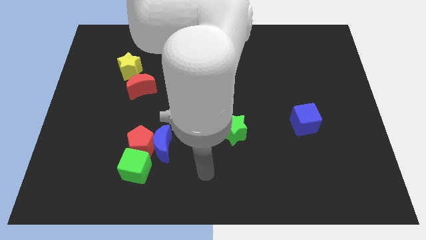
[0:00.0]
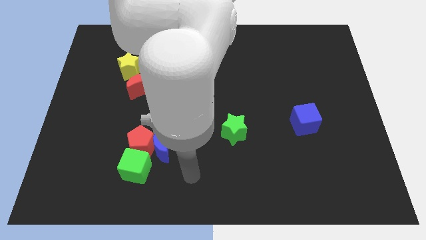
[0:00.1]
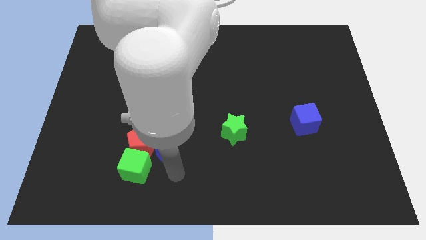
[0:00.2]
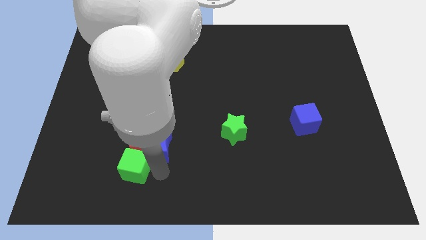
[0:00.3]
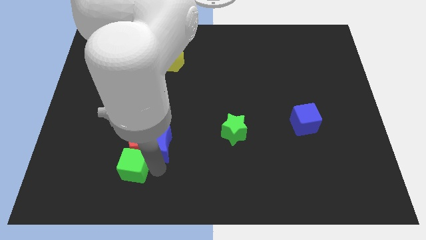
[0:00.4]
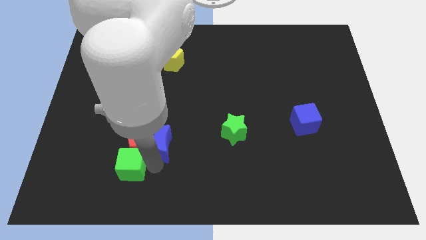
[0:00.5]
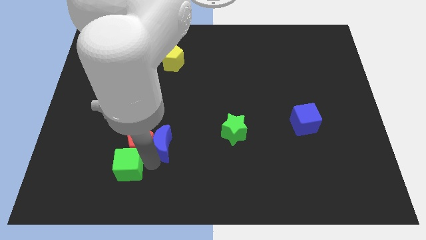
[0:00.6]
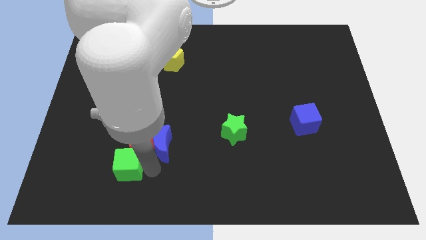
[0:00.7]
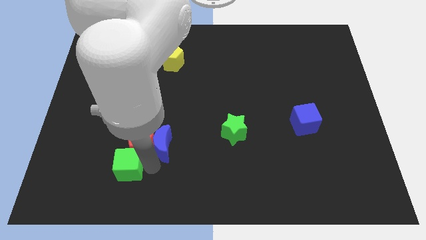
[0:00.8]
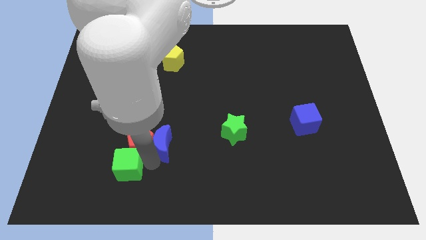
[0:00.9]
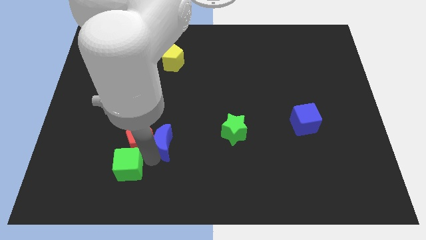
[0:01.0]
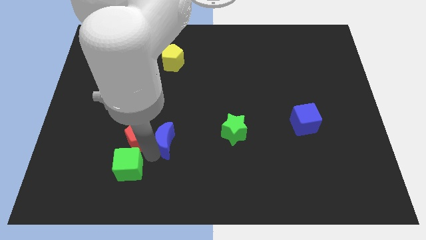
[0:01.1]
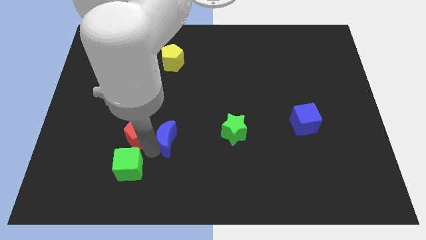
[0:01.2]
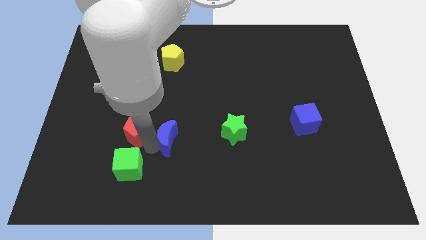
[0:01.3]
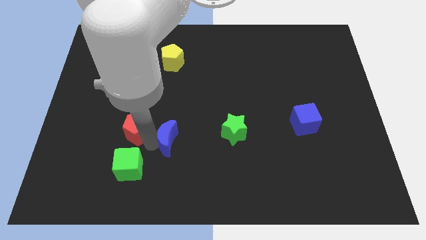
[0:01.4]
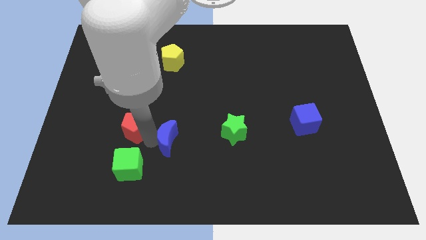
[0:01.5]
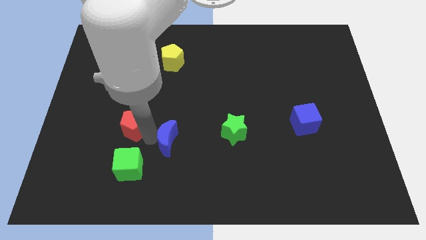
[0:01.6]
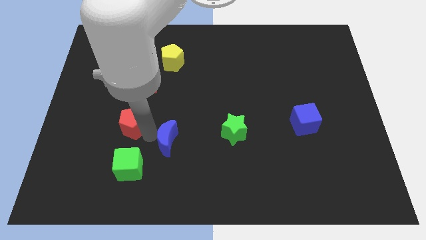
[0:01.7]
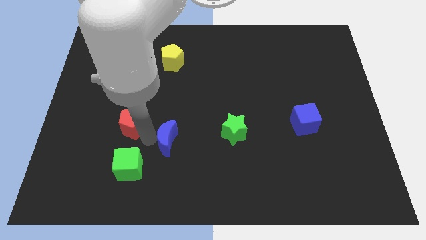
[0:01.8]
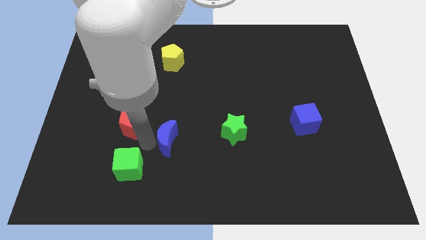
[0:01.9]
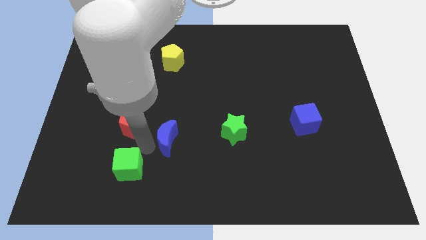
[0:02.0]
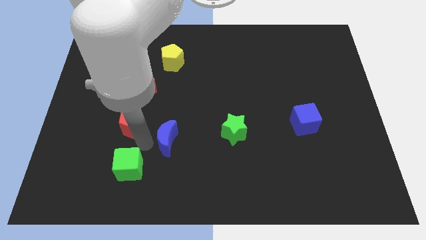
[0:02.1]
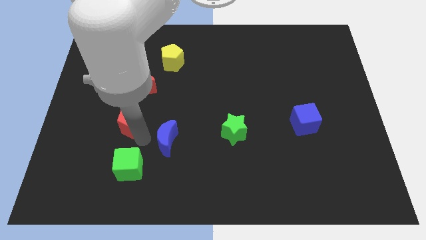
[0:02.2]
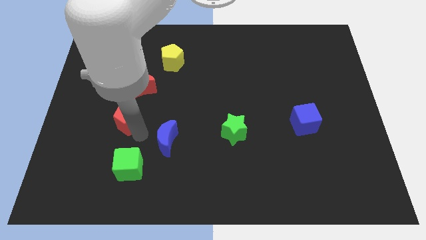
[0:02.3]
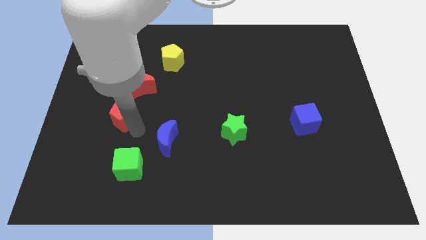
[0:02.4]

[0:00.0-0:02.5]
separate the red pentagon from the blue moon and green cube

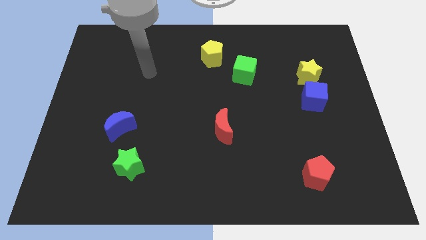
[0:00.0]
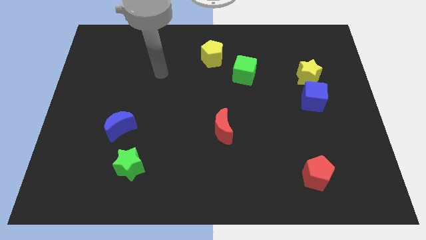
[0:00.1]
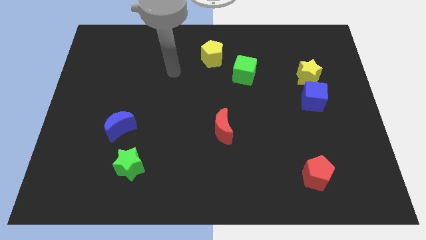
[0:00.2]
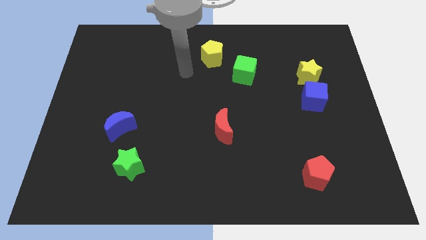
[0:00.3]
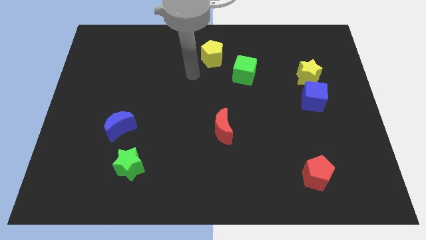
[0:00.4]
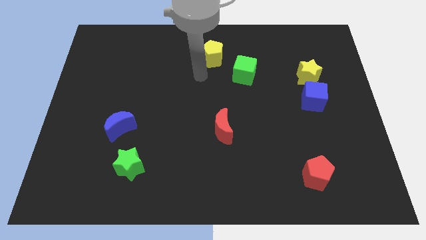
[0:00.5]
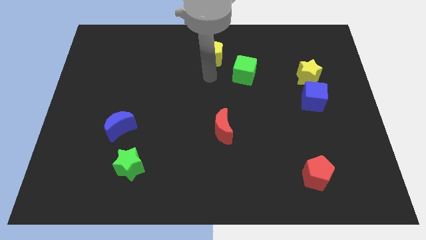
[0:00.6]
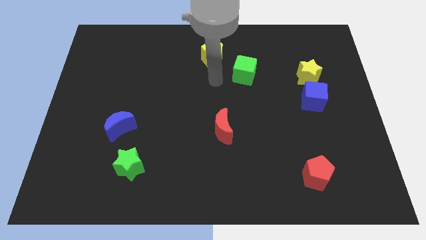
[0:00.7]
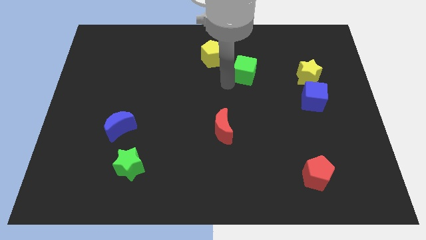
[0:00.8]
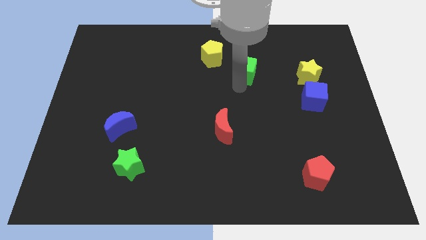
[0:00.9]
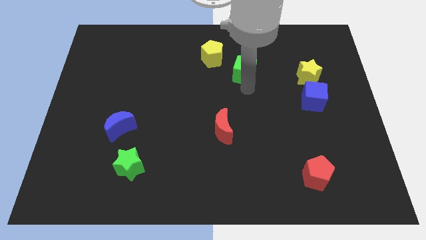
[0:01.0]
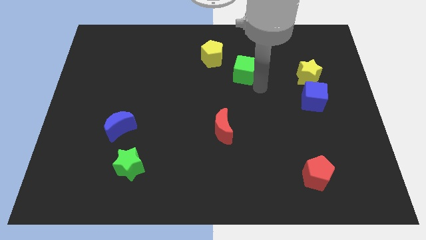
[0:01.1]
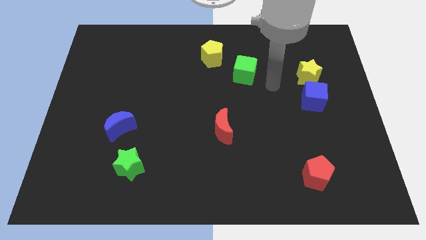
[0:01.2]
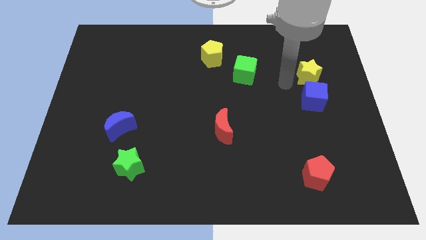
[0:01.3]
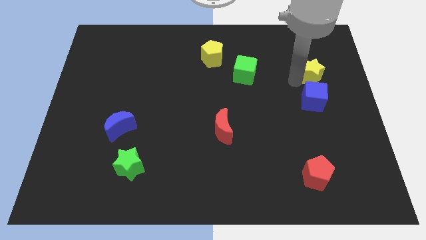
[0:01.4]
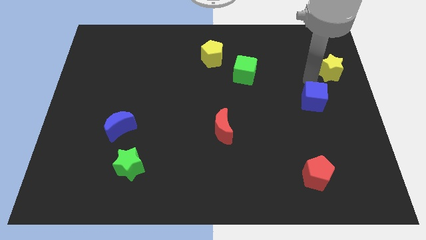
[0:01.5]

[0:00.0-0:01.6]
separate the blue cube from the yellow star

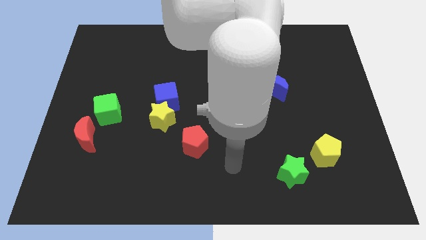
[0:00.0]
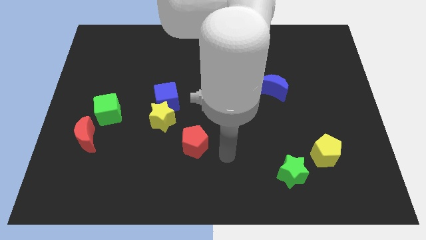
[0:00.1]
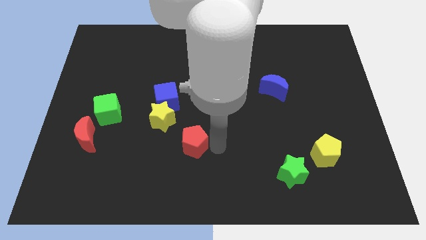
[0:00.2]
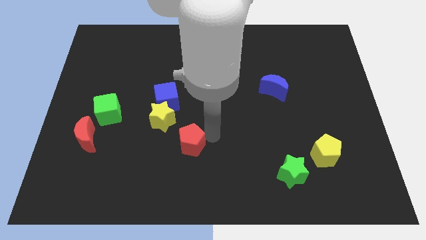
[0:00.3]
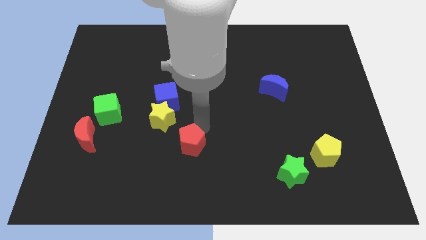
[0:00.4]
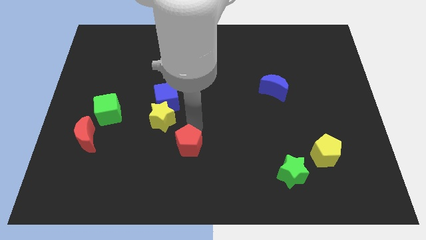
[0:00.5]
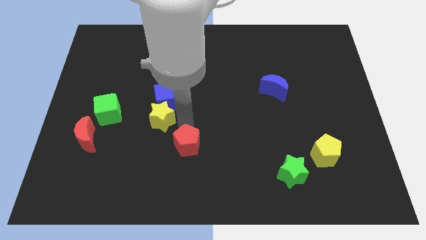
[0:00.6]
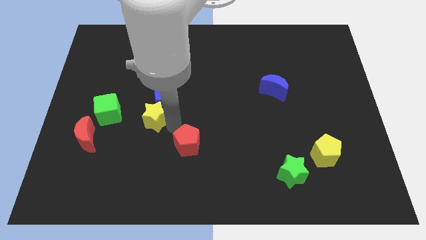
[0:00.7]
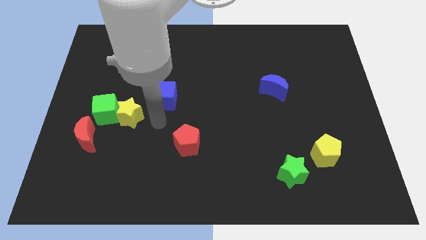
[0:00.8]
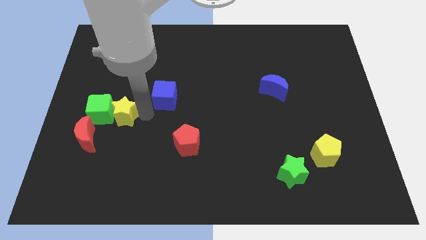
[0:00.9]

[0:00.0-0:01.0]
move the blue cube away from the yellow star

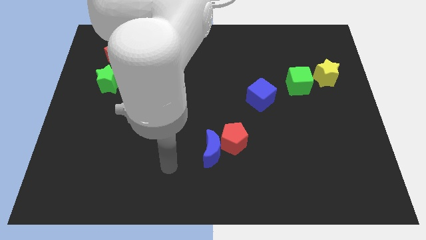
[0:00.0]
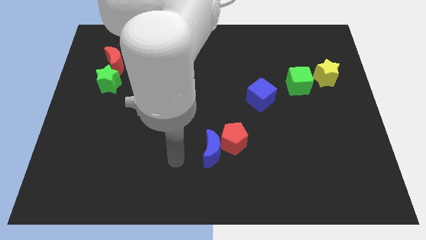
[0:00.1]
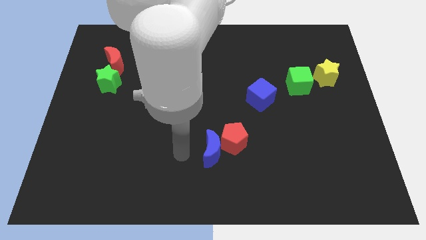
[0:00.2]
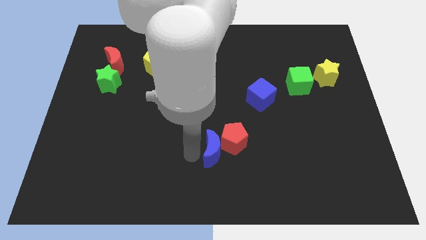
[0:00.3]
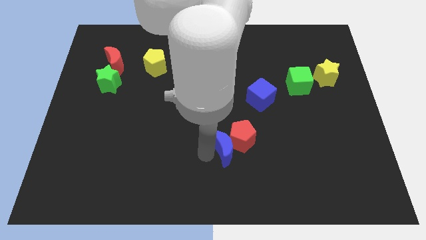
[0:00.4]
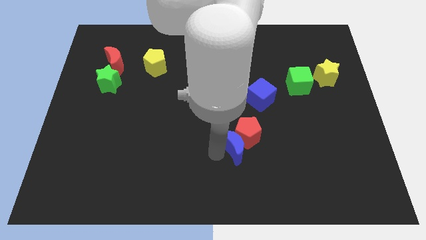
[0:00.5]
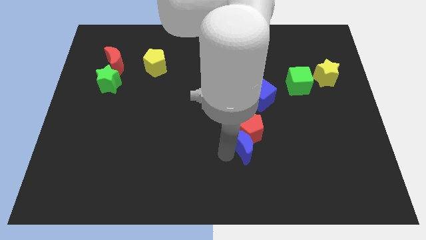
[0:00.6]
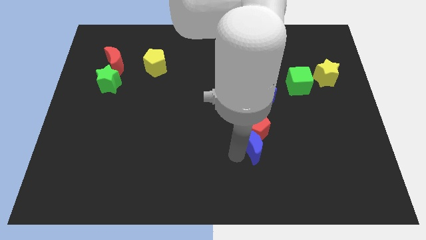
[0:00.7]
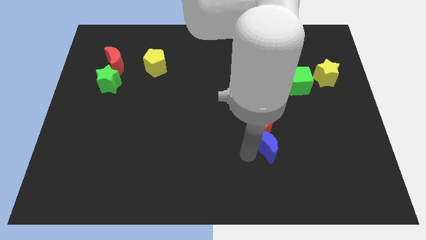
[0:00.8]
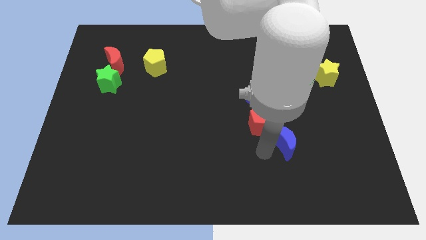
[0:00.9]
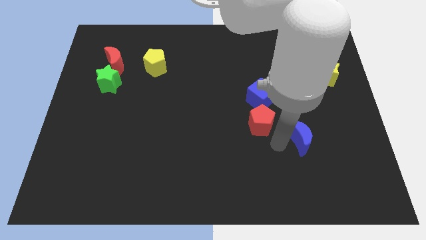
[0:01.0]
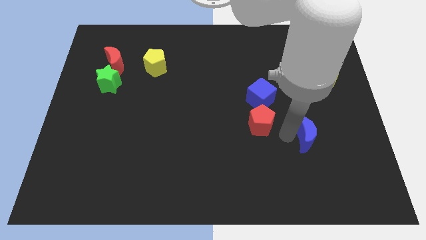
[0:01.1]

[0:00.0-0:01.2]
pull the red pentagon apart from the blue moon

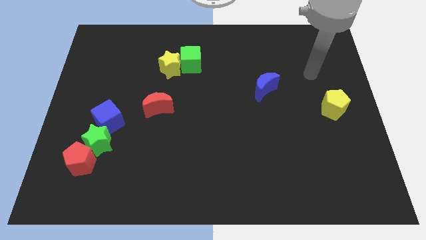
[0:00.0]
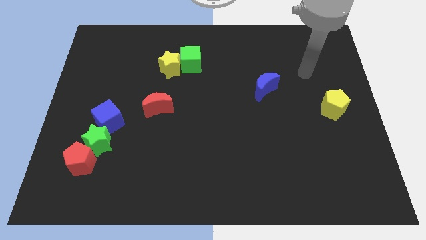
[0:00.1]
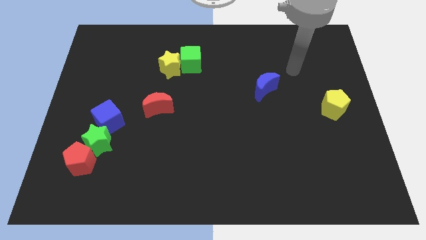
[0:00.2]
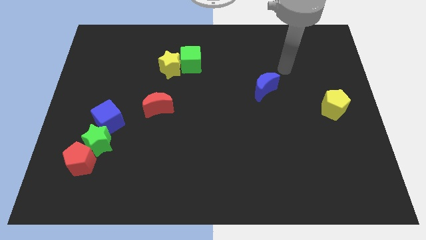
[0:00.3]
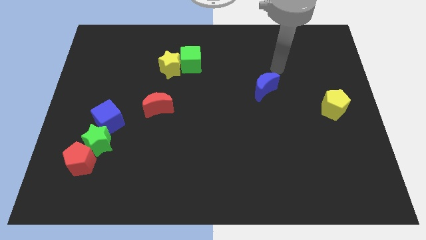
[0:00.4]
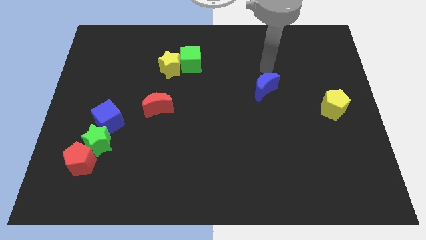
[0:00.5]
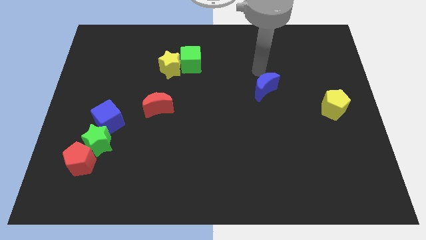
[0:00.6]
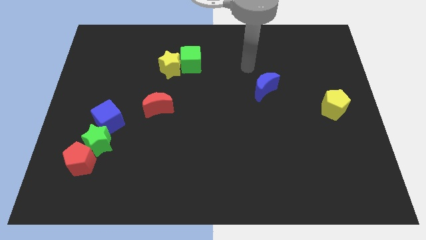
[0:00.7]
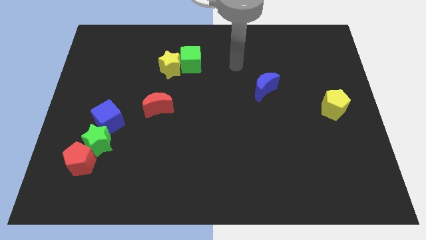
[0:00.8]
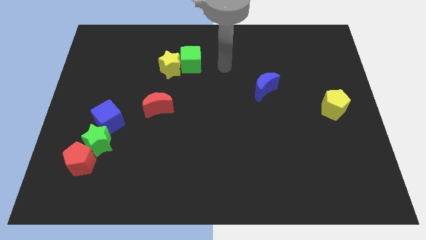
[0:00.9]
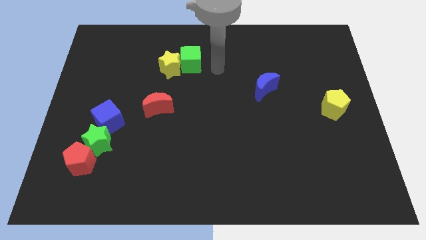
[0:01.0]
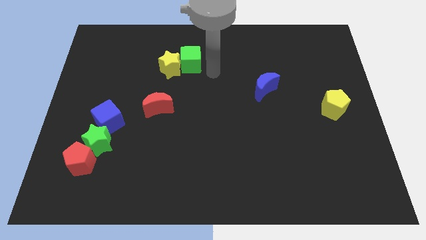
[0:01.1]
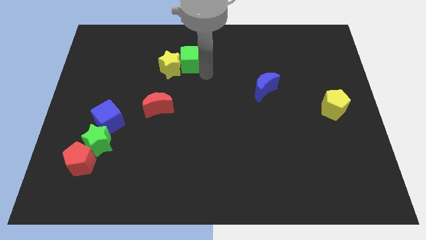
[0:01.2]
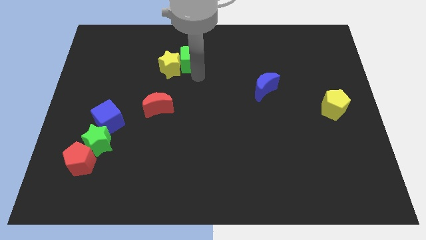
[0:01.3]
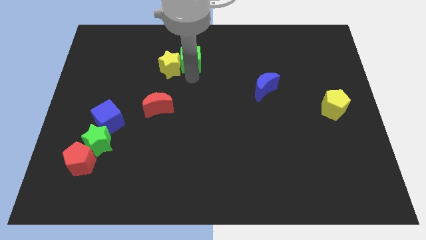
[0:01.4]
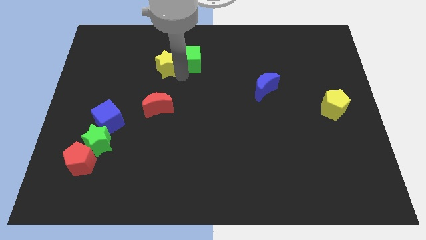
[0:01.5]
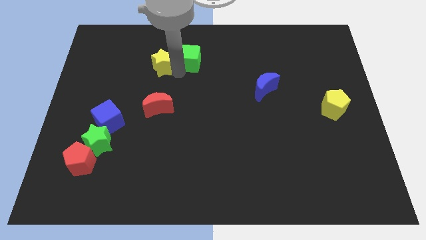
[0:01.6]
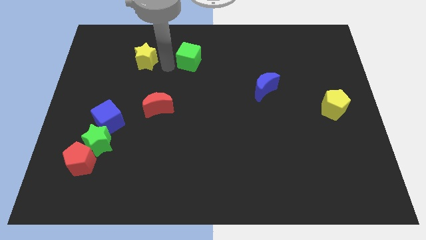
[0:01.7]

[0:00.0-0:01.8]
separate the green cube from the yellow star

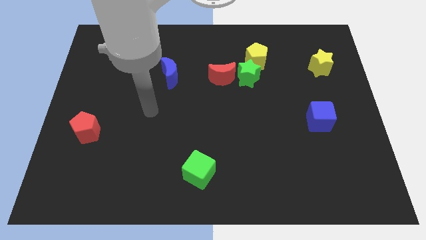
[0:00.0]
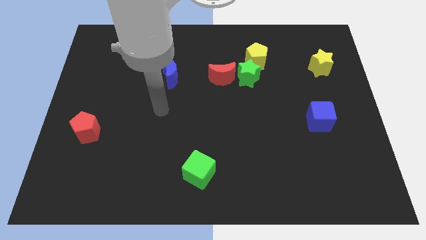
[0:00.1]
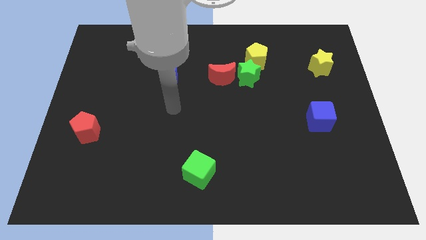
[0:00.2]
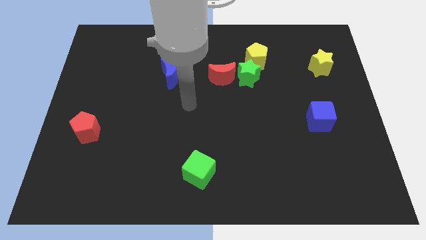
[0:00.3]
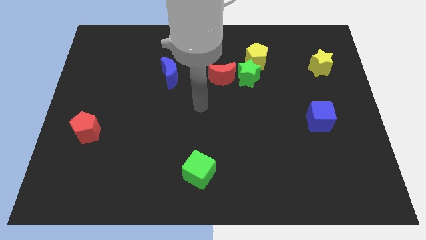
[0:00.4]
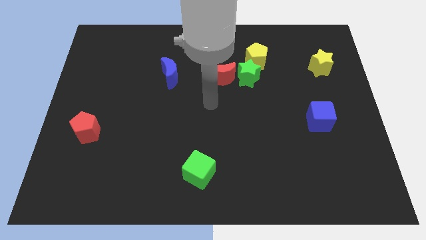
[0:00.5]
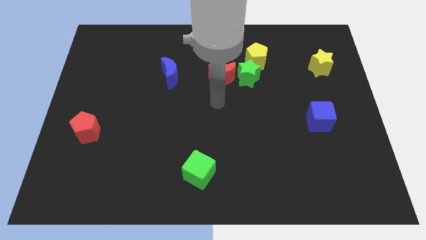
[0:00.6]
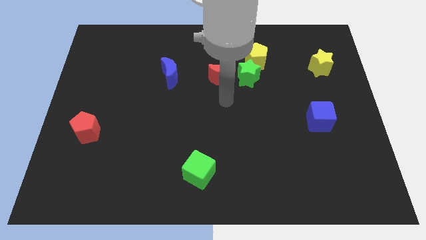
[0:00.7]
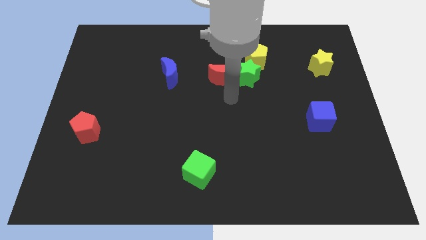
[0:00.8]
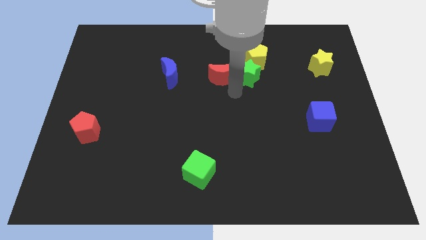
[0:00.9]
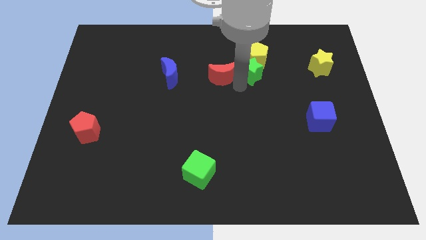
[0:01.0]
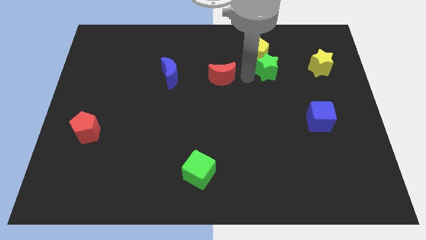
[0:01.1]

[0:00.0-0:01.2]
pull the red moon apart from the green star
